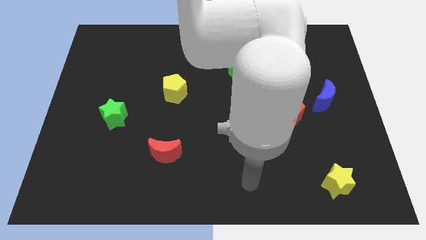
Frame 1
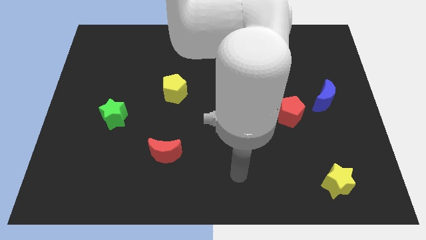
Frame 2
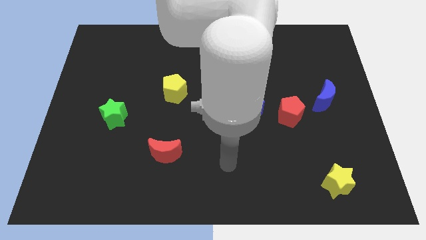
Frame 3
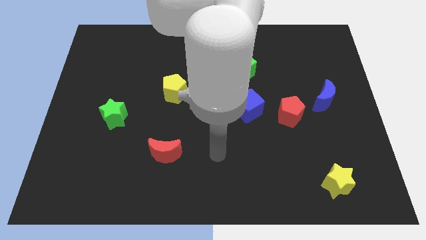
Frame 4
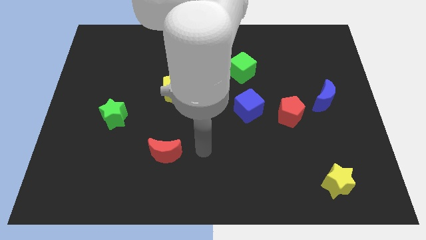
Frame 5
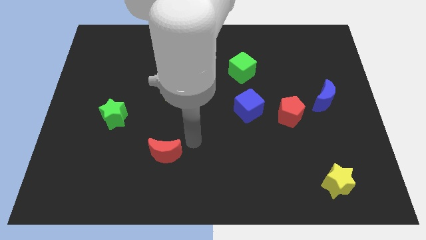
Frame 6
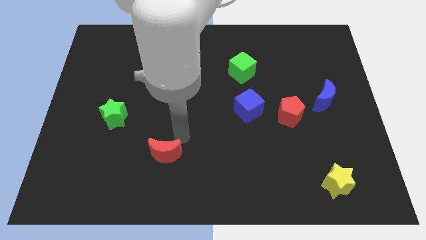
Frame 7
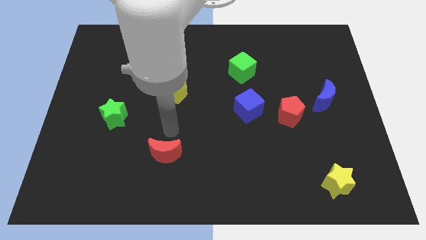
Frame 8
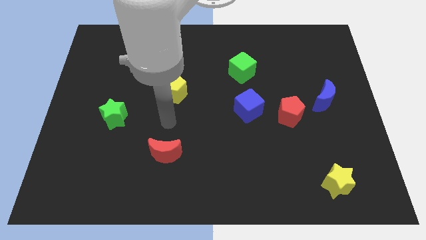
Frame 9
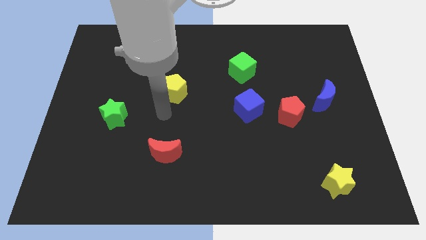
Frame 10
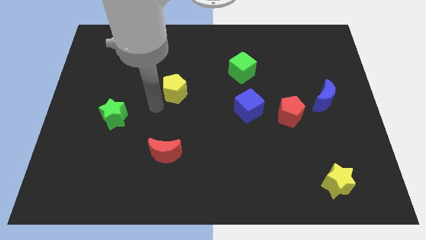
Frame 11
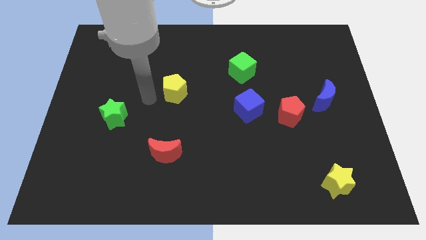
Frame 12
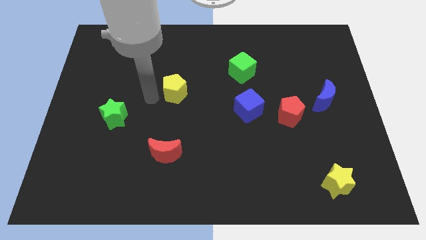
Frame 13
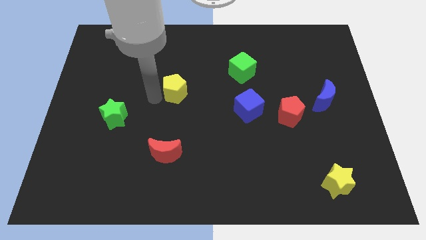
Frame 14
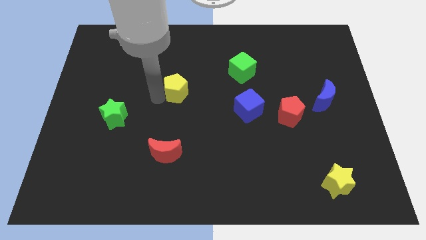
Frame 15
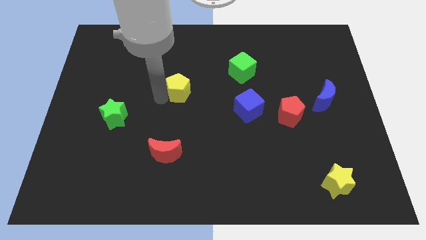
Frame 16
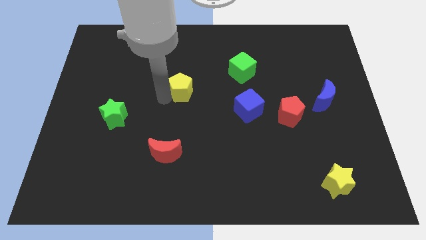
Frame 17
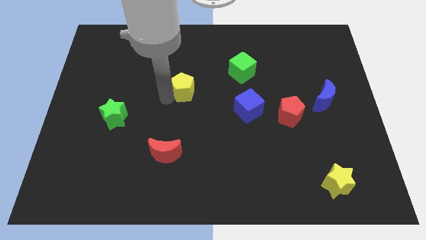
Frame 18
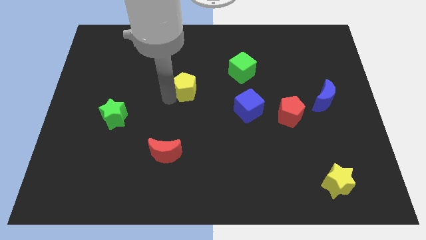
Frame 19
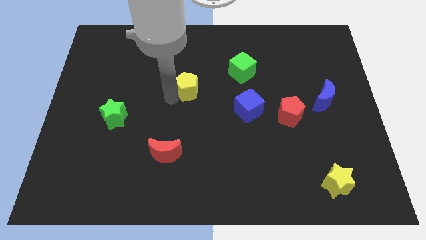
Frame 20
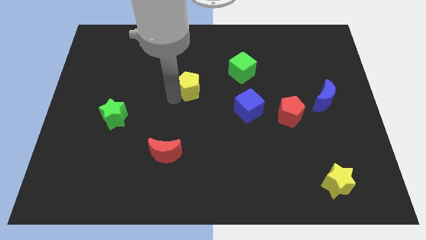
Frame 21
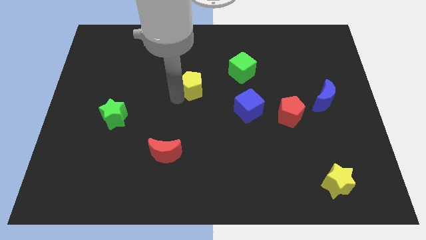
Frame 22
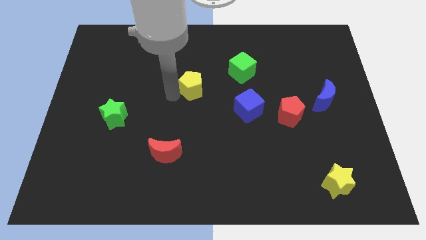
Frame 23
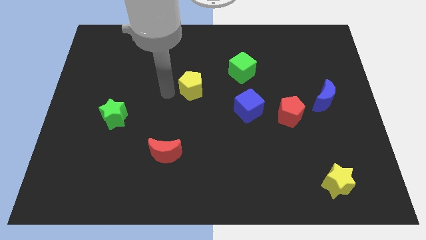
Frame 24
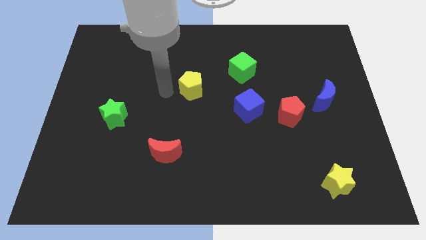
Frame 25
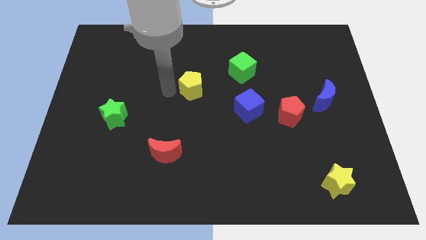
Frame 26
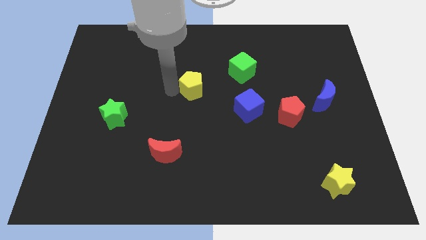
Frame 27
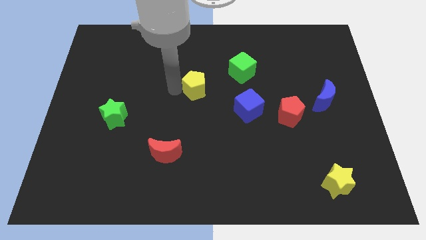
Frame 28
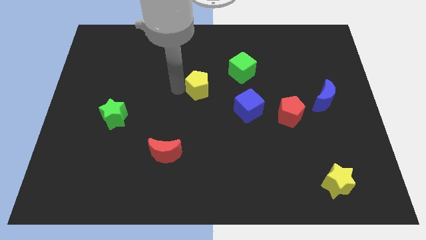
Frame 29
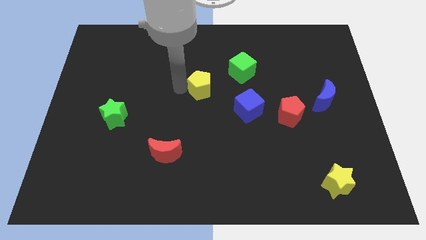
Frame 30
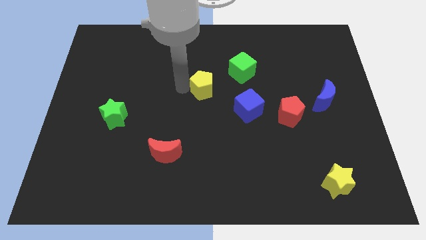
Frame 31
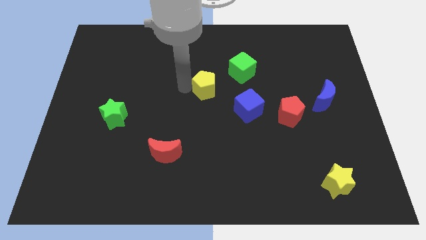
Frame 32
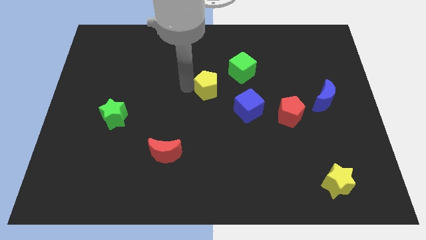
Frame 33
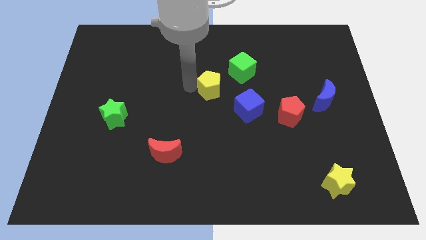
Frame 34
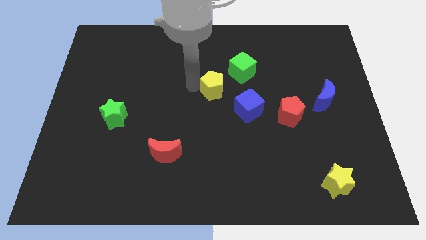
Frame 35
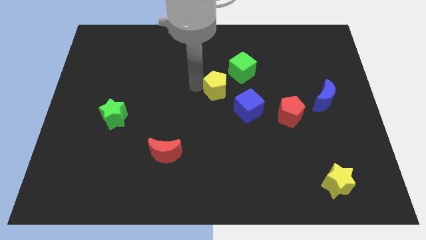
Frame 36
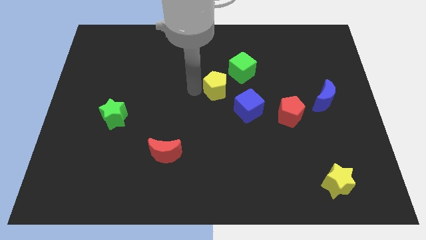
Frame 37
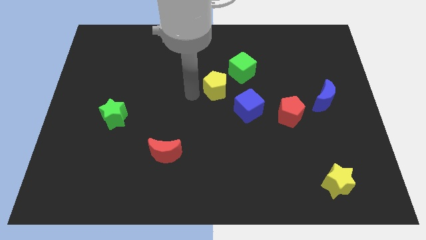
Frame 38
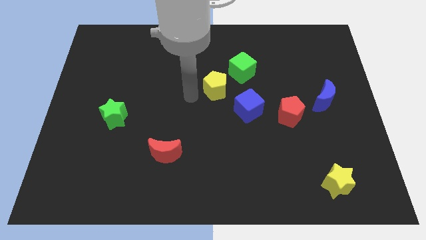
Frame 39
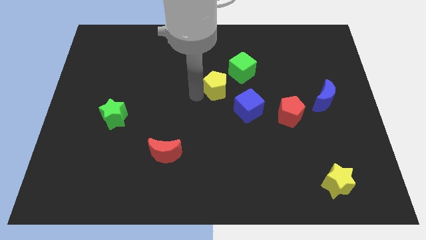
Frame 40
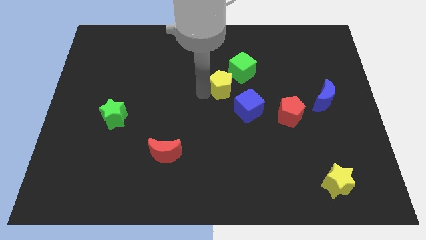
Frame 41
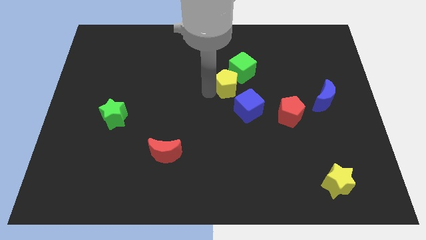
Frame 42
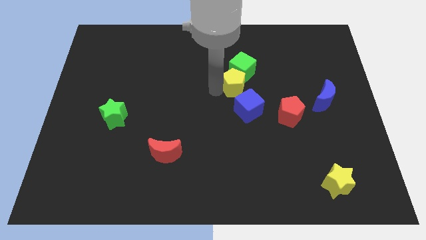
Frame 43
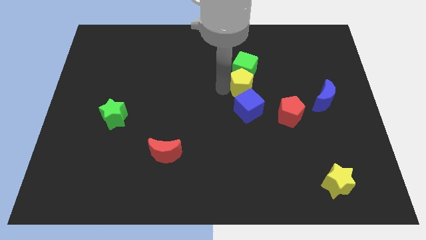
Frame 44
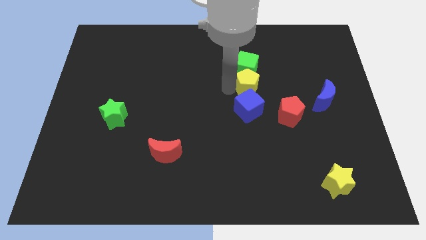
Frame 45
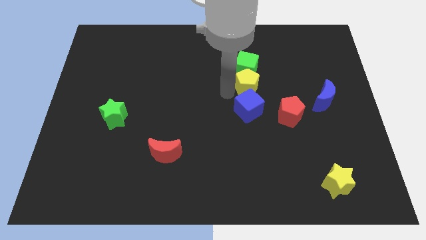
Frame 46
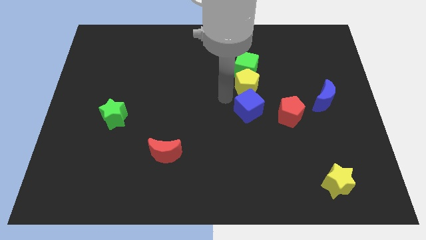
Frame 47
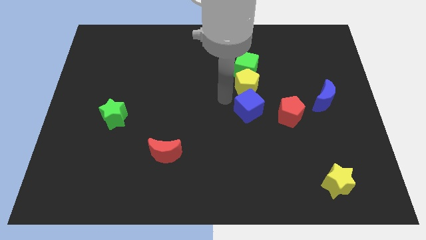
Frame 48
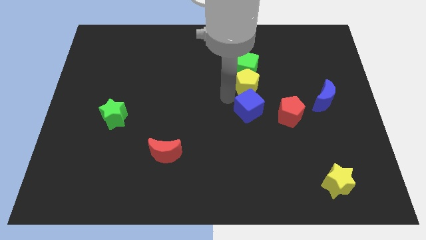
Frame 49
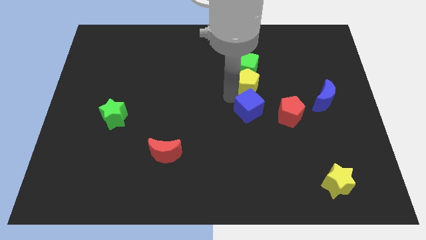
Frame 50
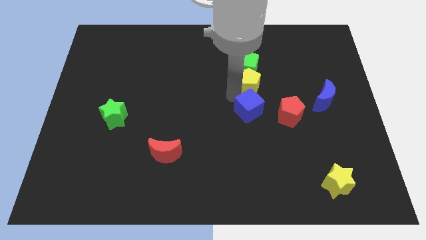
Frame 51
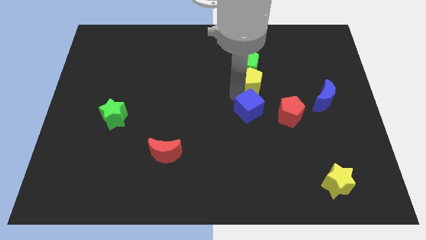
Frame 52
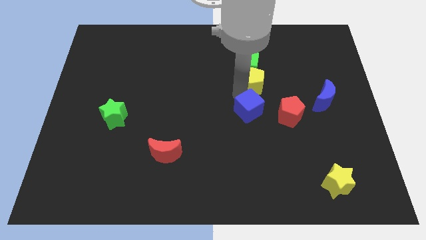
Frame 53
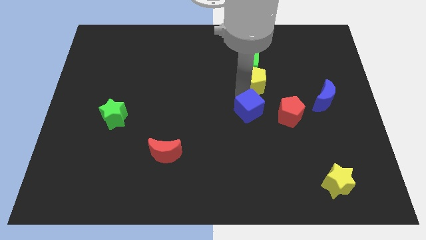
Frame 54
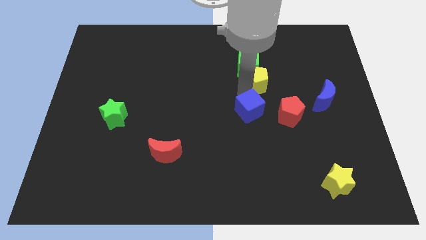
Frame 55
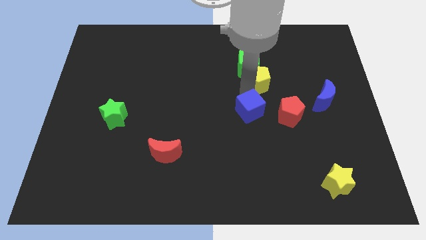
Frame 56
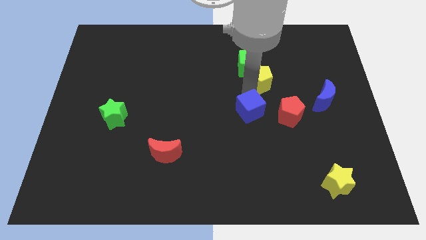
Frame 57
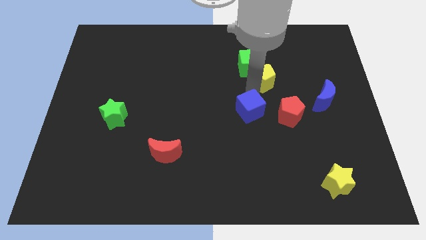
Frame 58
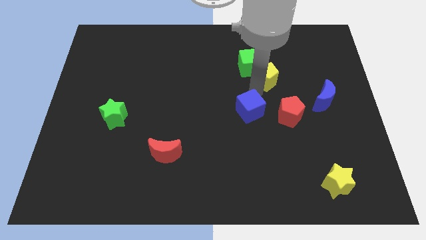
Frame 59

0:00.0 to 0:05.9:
push the yellow pentagon just right of the green cube

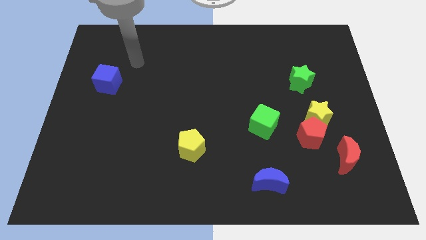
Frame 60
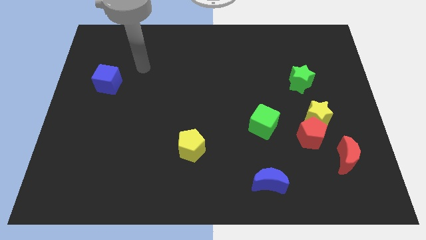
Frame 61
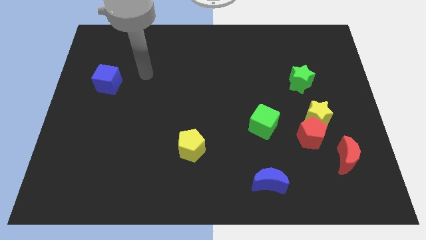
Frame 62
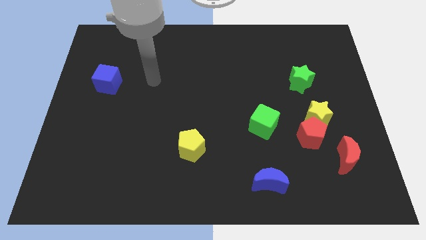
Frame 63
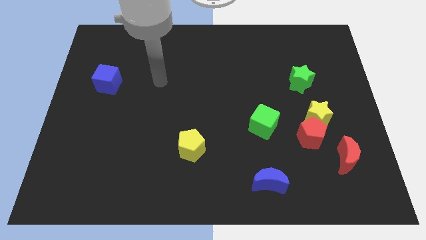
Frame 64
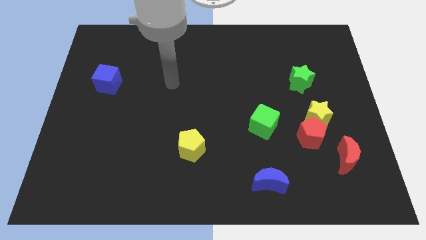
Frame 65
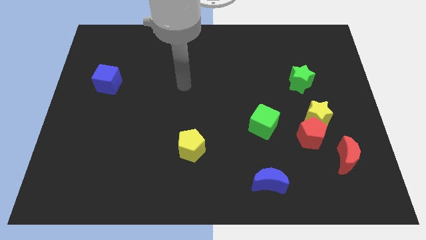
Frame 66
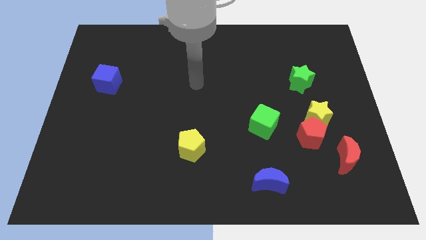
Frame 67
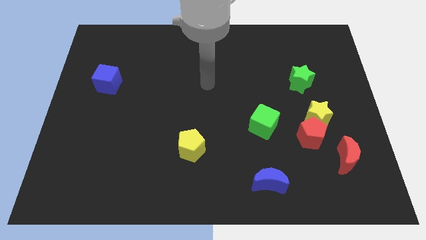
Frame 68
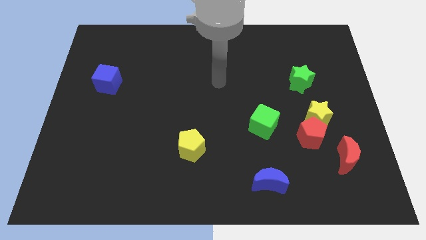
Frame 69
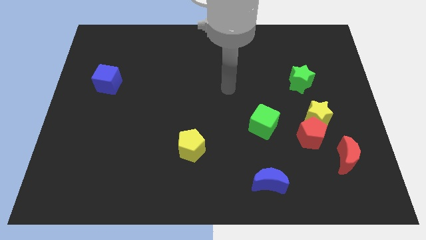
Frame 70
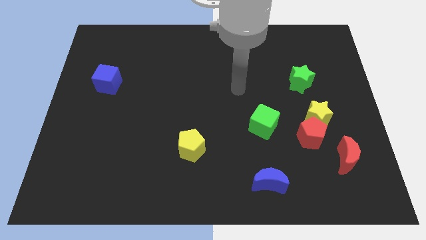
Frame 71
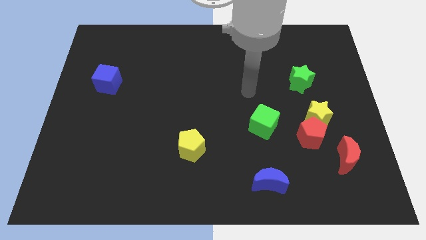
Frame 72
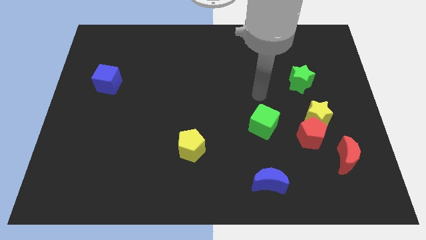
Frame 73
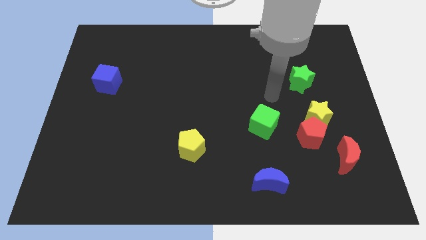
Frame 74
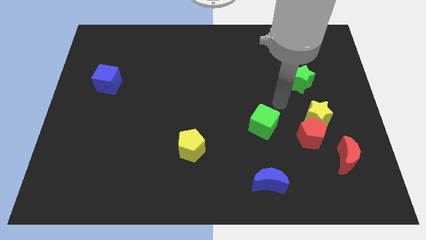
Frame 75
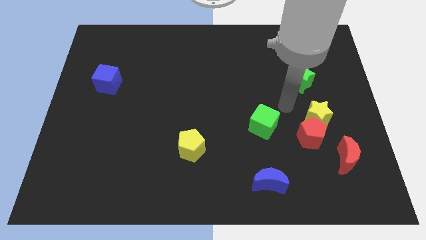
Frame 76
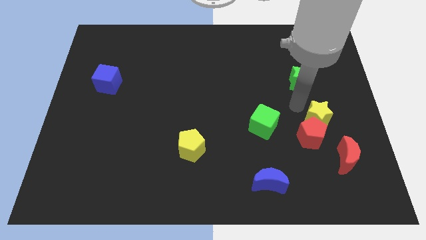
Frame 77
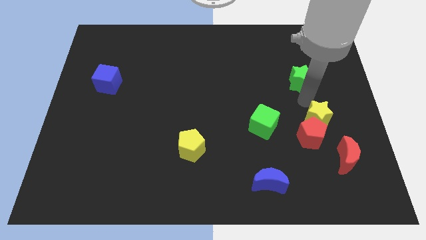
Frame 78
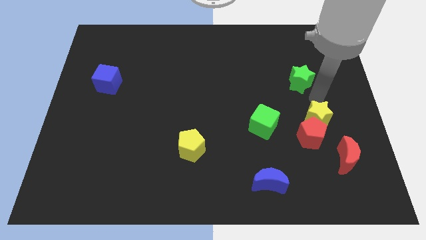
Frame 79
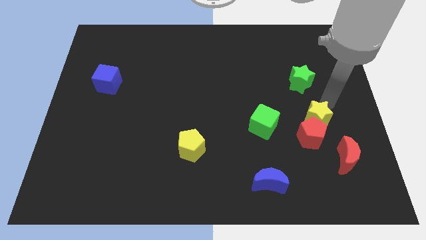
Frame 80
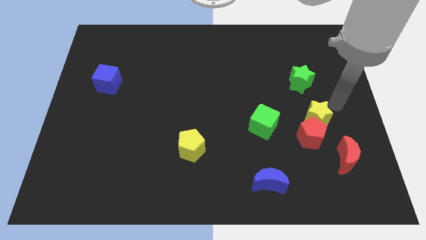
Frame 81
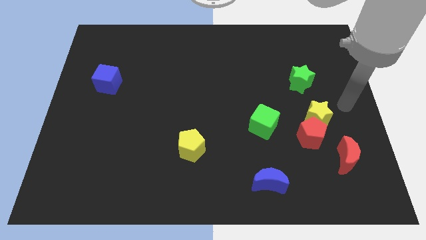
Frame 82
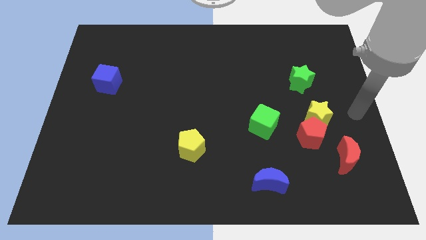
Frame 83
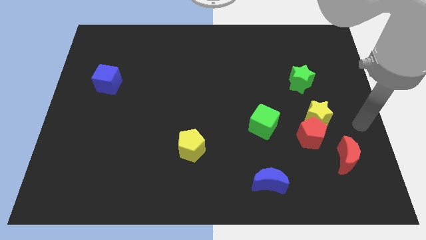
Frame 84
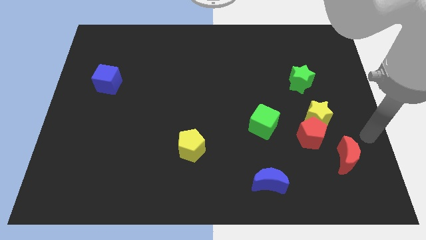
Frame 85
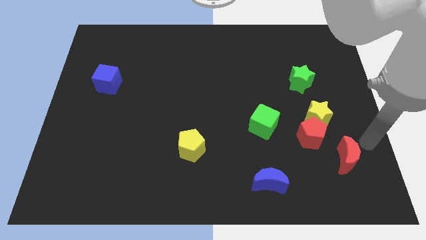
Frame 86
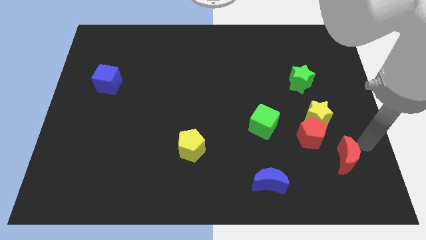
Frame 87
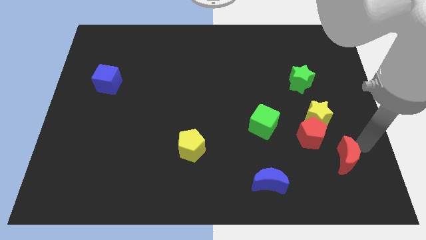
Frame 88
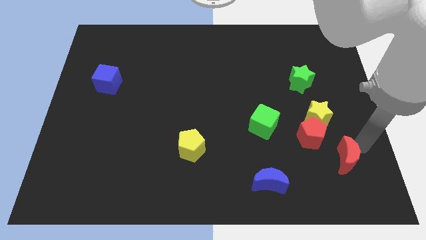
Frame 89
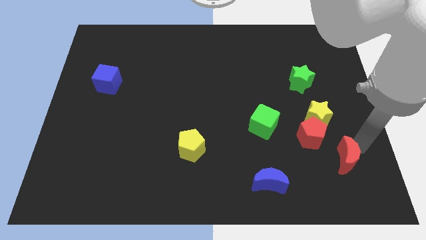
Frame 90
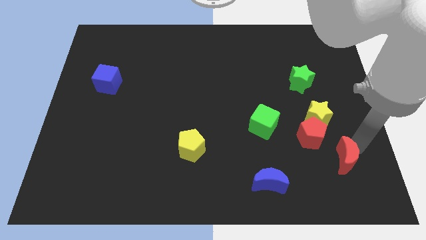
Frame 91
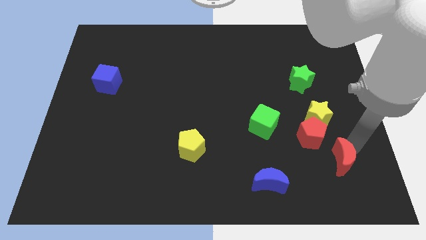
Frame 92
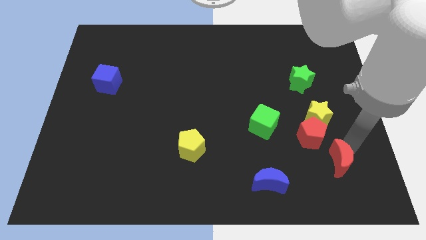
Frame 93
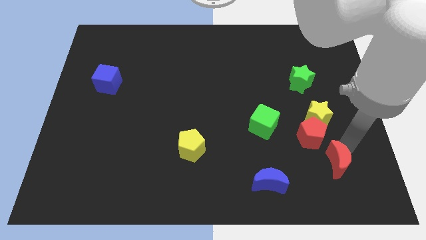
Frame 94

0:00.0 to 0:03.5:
push the red moon to the bottom of the red pentagon
